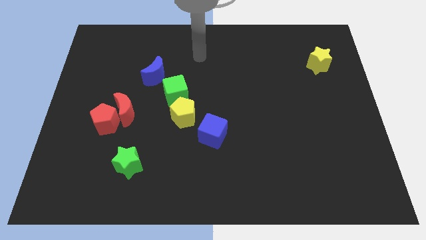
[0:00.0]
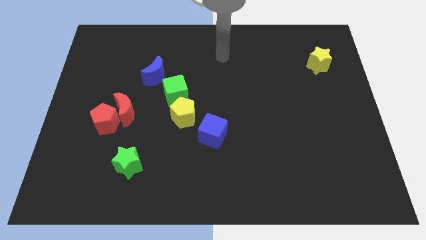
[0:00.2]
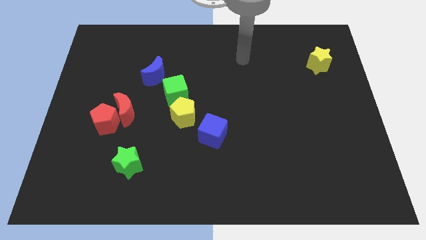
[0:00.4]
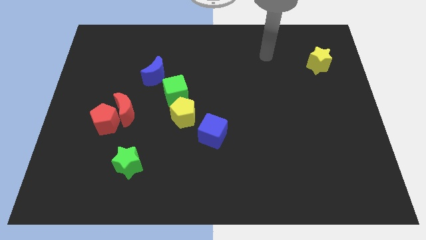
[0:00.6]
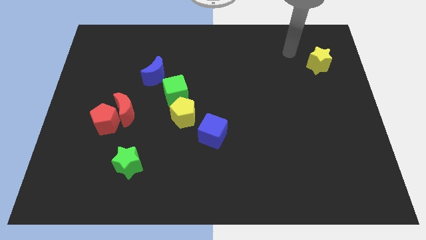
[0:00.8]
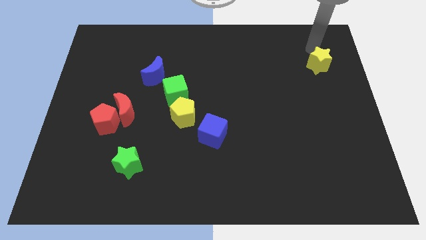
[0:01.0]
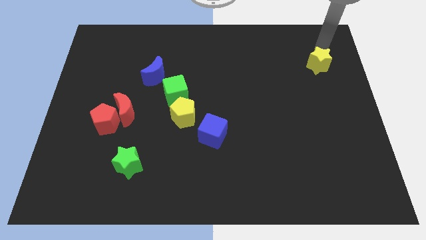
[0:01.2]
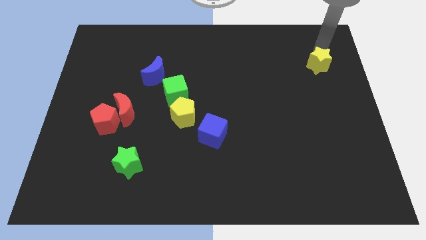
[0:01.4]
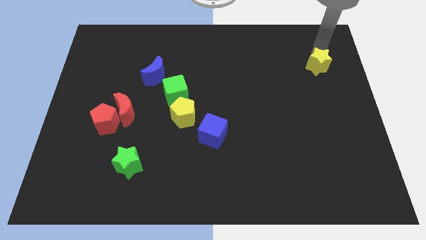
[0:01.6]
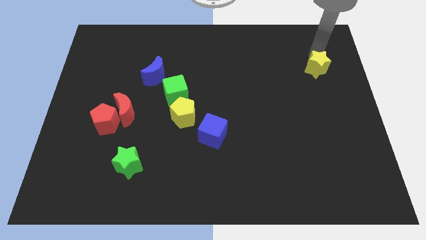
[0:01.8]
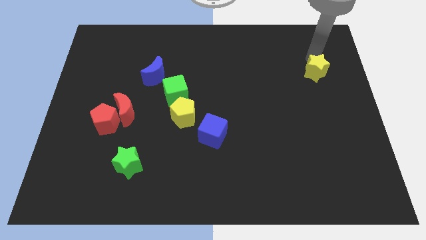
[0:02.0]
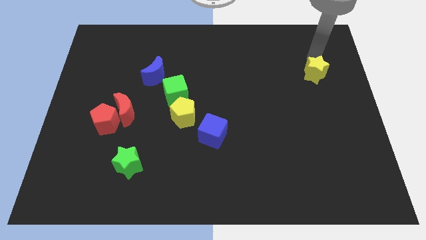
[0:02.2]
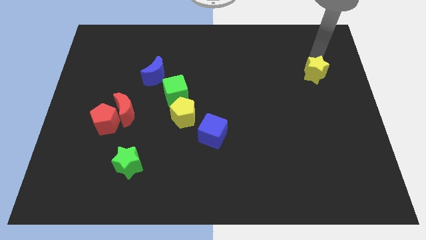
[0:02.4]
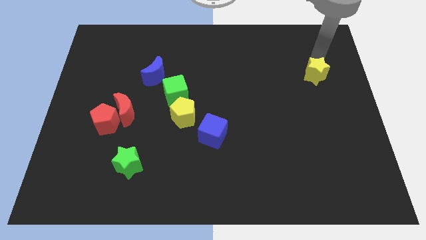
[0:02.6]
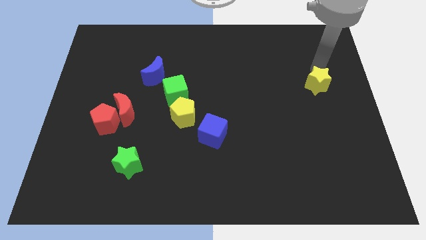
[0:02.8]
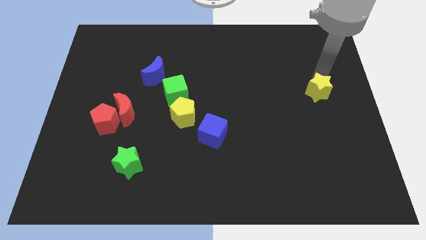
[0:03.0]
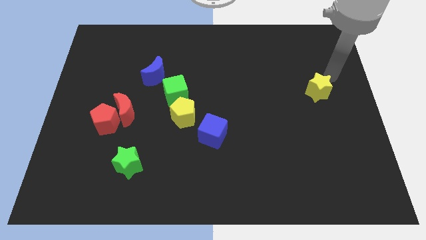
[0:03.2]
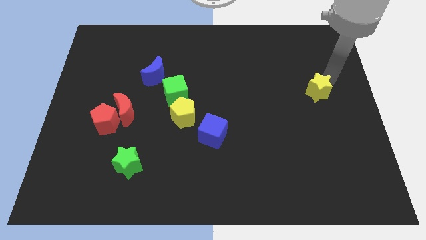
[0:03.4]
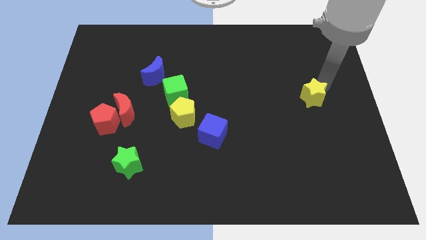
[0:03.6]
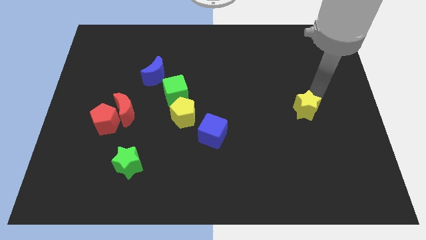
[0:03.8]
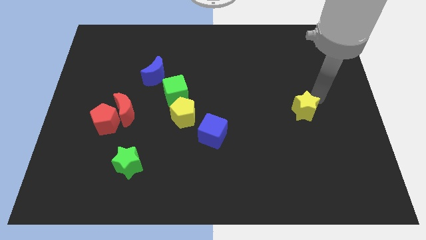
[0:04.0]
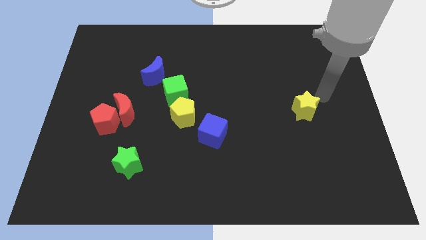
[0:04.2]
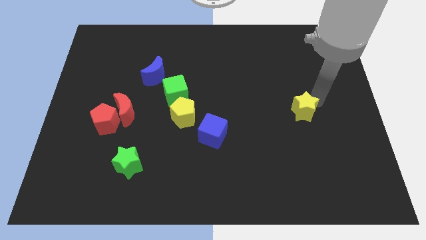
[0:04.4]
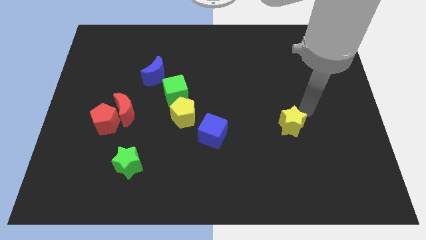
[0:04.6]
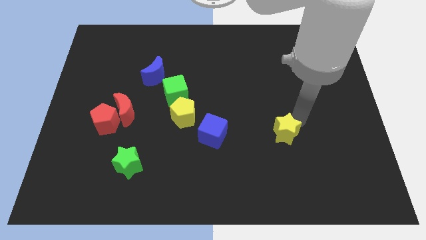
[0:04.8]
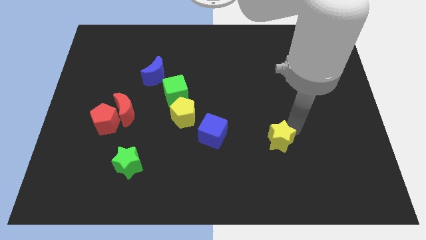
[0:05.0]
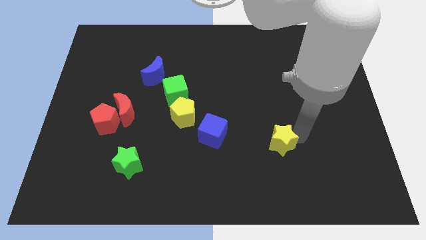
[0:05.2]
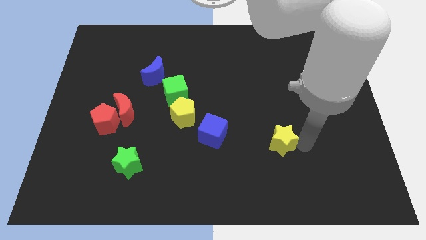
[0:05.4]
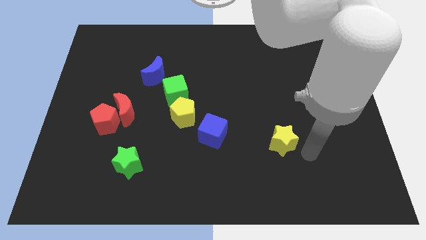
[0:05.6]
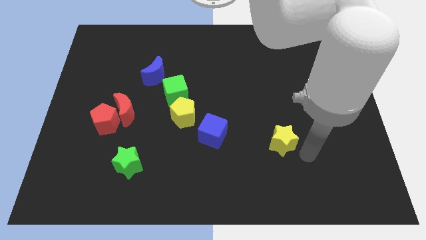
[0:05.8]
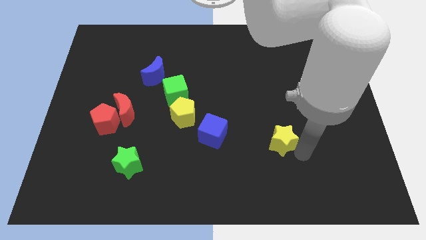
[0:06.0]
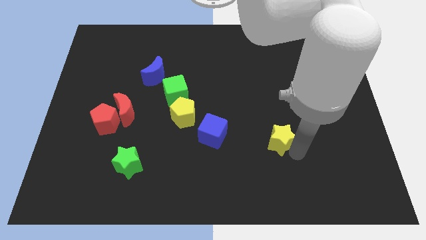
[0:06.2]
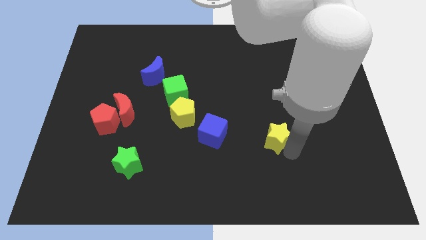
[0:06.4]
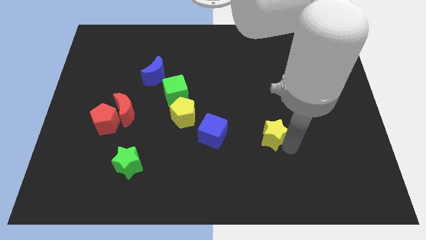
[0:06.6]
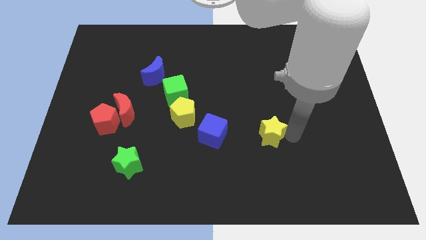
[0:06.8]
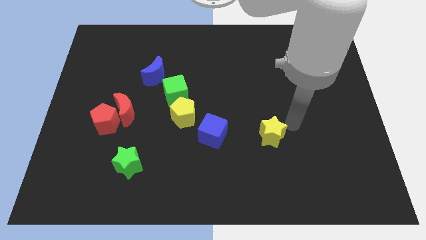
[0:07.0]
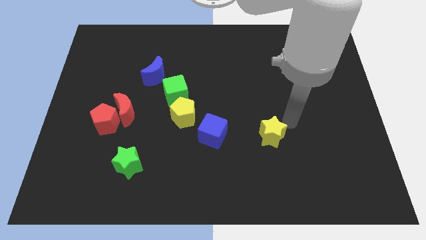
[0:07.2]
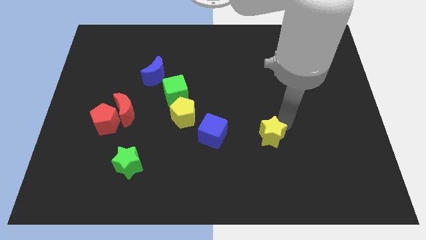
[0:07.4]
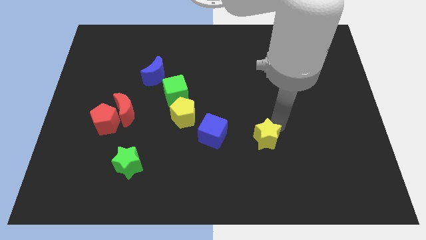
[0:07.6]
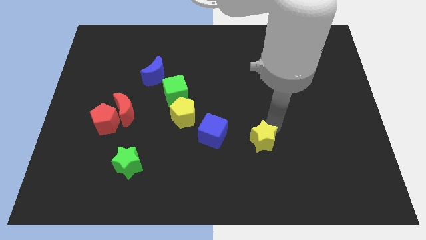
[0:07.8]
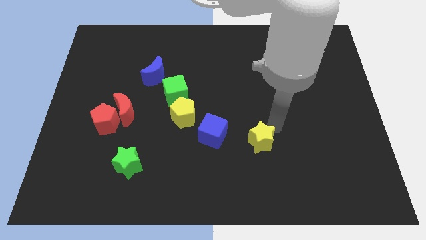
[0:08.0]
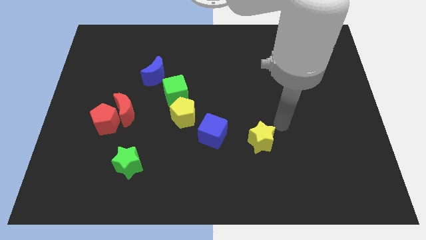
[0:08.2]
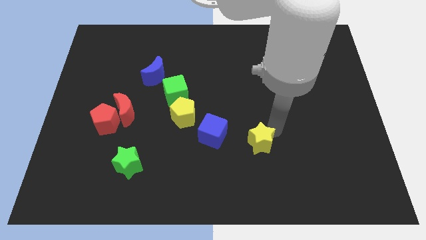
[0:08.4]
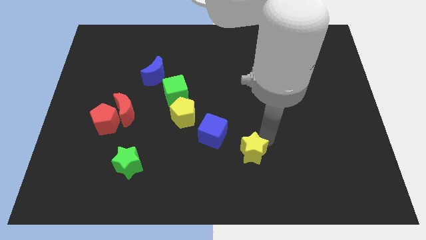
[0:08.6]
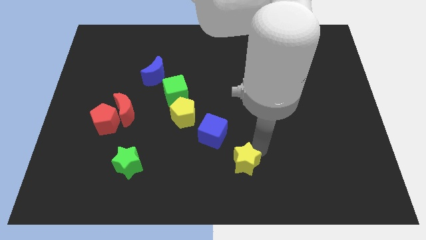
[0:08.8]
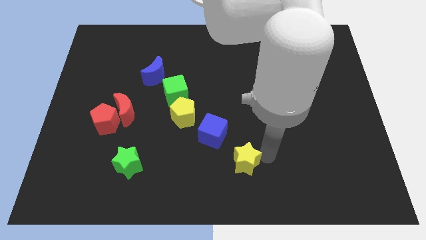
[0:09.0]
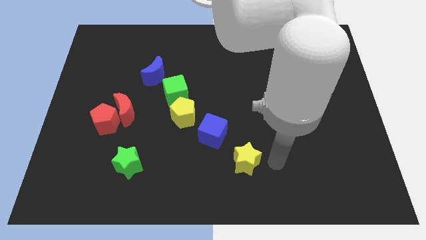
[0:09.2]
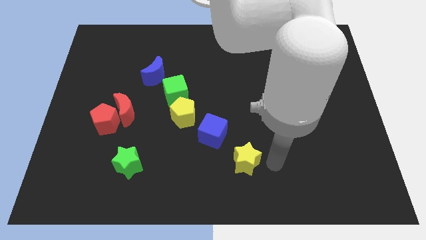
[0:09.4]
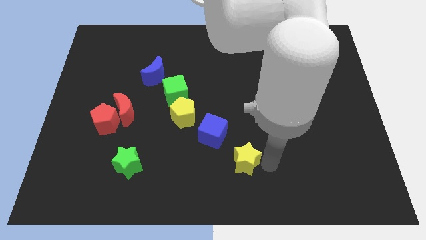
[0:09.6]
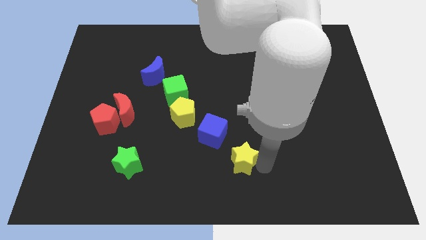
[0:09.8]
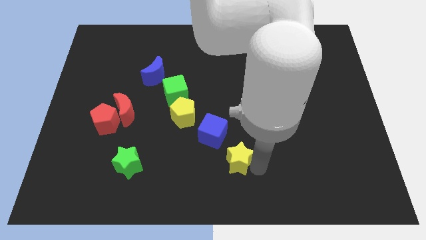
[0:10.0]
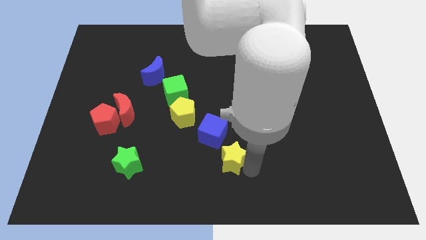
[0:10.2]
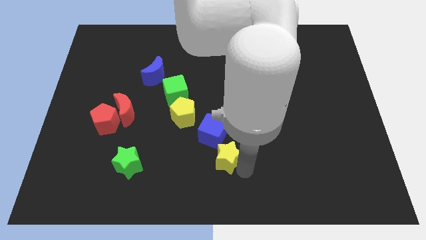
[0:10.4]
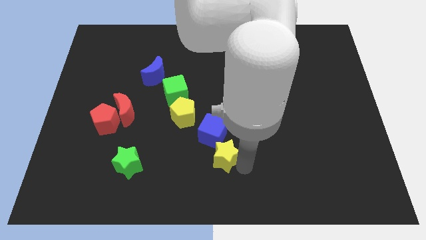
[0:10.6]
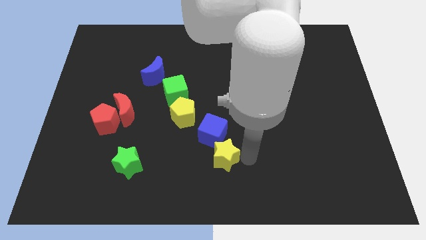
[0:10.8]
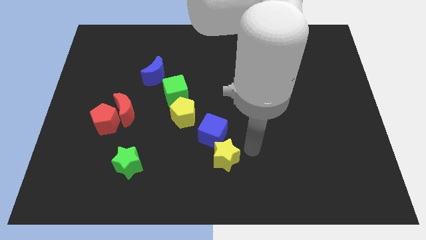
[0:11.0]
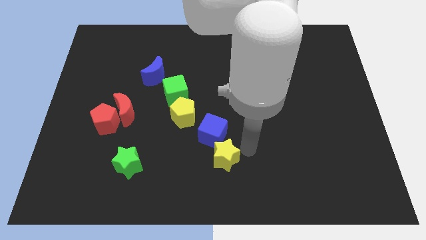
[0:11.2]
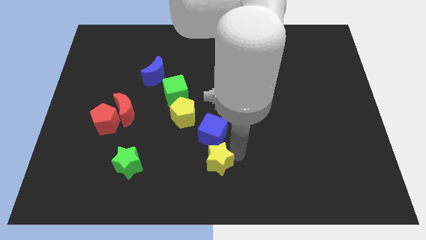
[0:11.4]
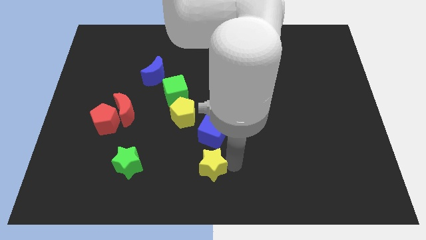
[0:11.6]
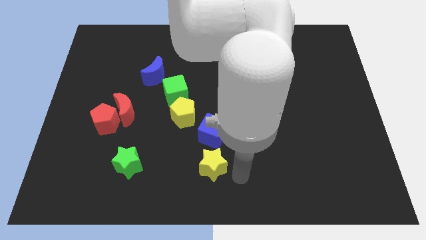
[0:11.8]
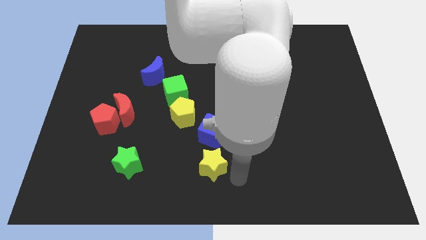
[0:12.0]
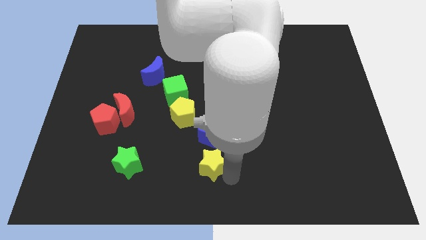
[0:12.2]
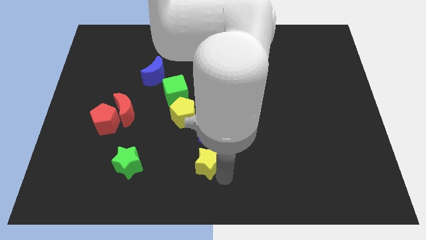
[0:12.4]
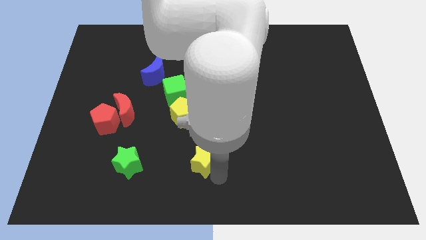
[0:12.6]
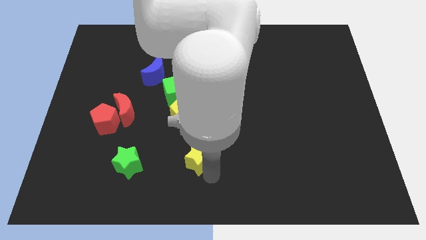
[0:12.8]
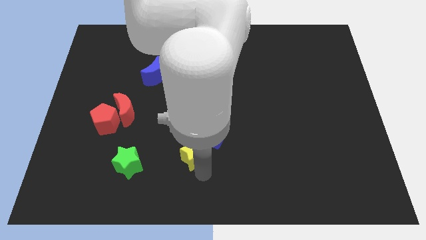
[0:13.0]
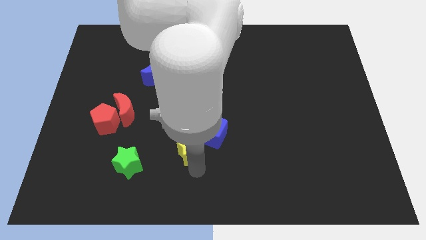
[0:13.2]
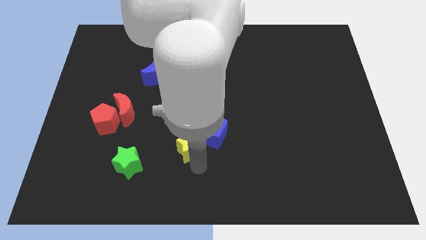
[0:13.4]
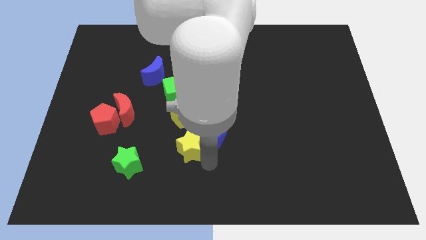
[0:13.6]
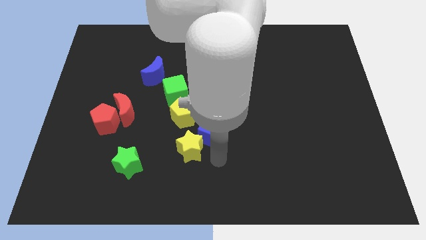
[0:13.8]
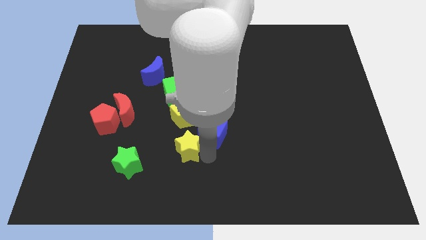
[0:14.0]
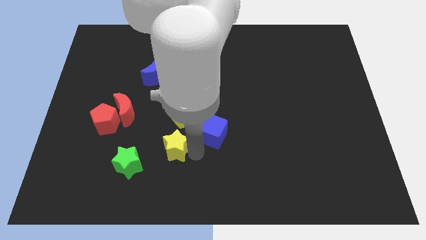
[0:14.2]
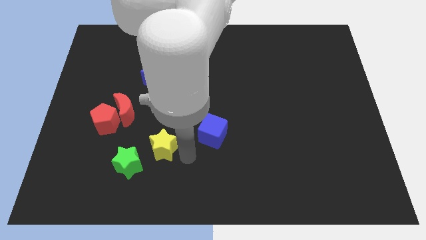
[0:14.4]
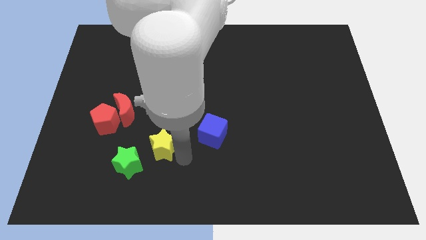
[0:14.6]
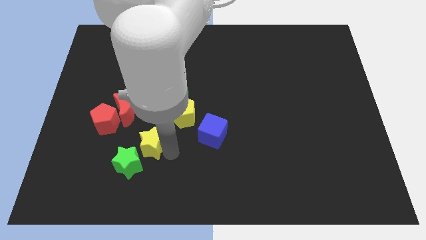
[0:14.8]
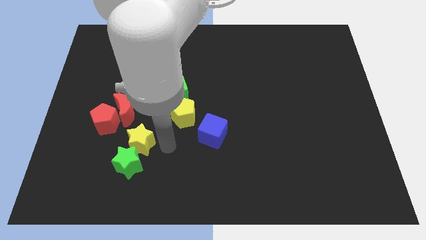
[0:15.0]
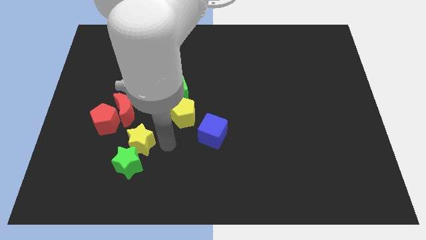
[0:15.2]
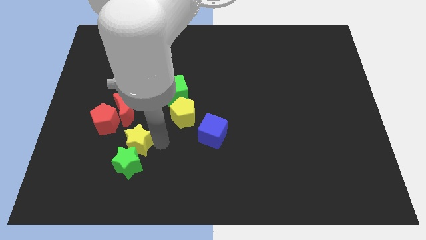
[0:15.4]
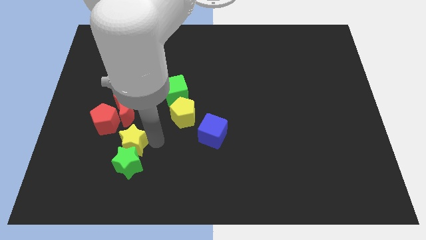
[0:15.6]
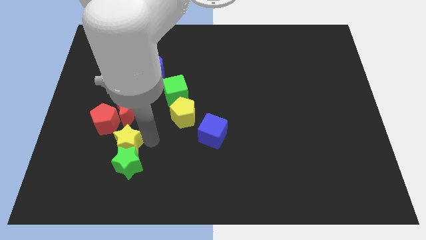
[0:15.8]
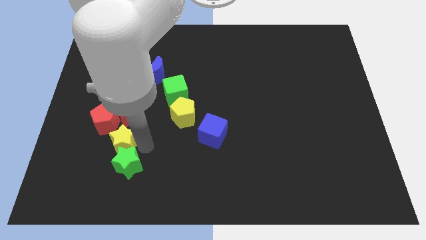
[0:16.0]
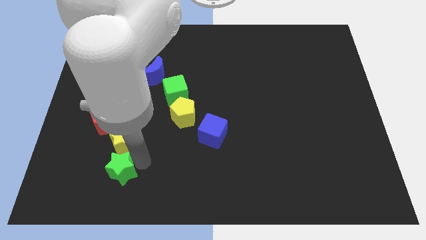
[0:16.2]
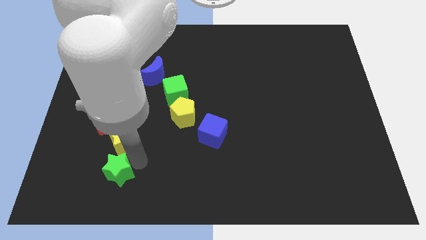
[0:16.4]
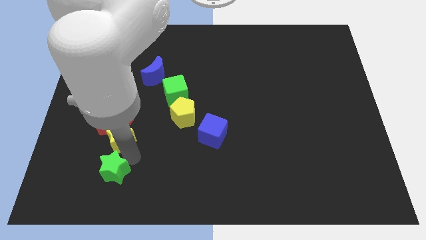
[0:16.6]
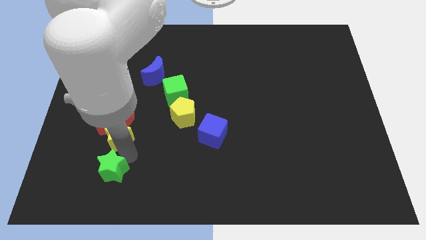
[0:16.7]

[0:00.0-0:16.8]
put the yellow star towards the red pentagon
